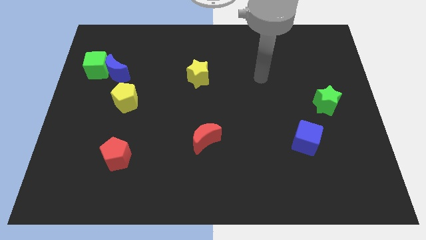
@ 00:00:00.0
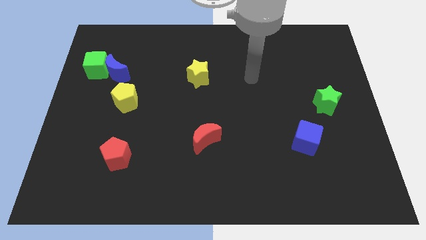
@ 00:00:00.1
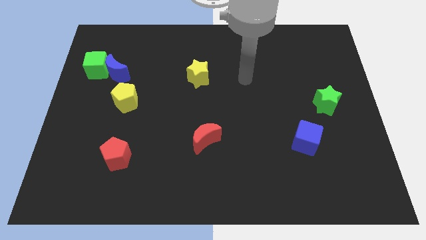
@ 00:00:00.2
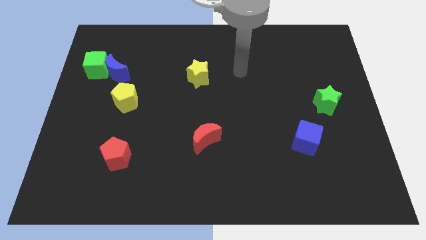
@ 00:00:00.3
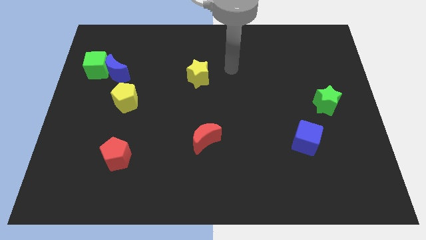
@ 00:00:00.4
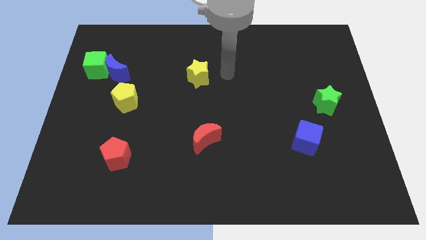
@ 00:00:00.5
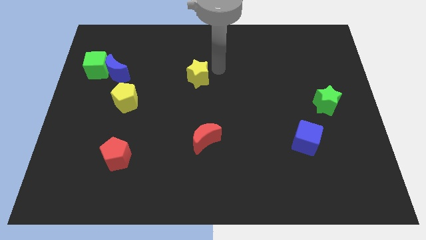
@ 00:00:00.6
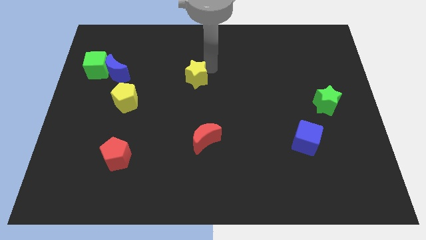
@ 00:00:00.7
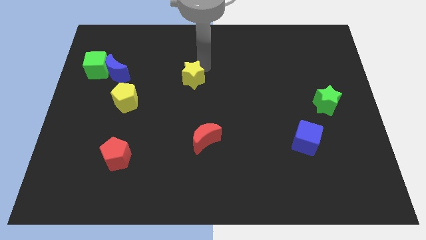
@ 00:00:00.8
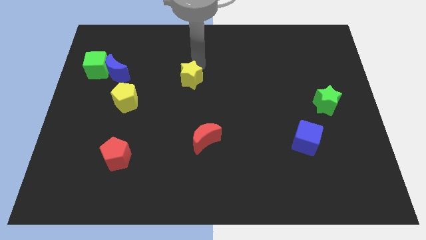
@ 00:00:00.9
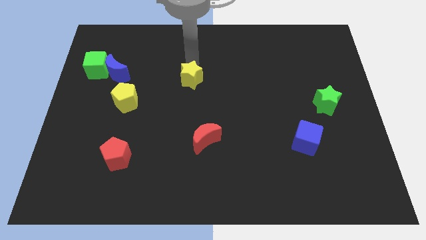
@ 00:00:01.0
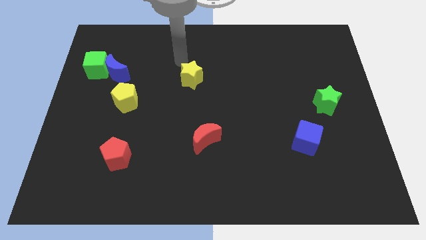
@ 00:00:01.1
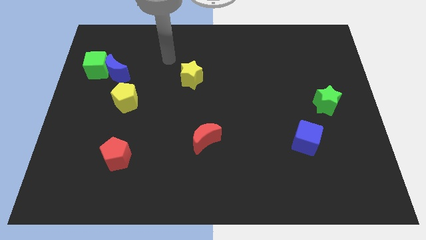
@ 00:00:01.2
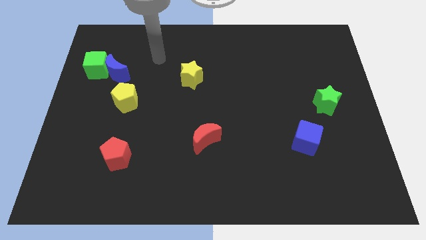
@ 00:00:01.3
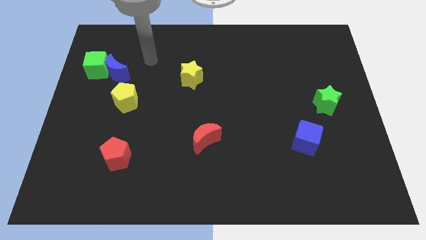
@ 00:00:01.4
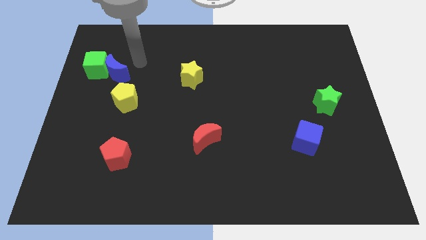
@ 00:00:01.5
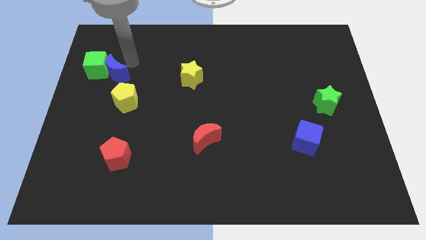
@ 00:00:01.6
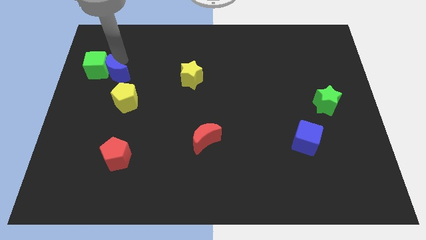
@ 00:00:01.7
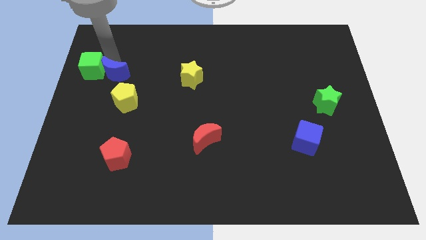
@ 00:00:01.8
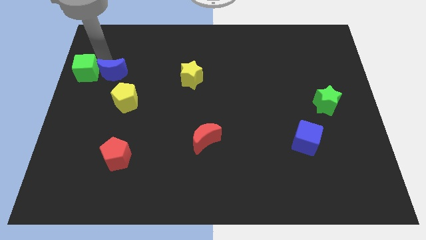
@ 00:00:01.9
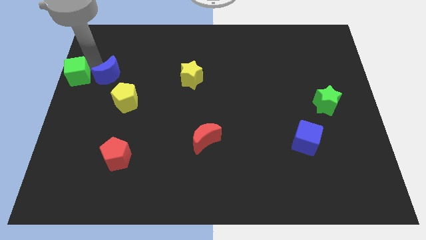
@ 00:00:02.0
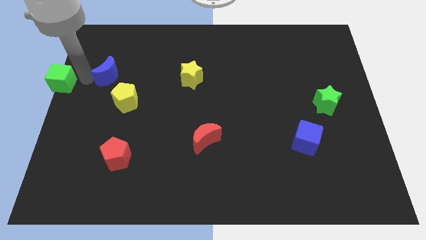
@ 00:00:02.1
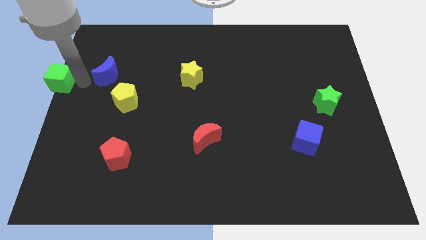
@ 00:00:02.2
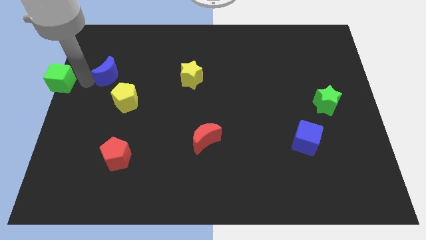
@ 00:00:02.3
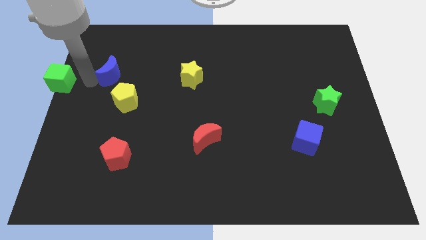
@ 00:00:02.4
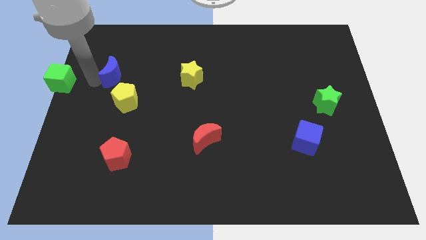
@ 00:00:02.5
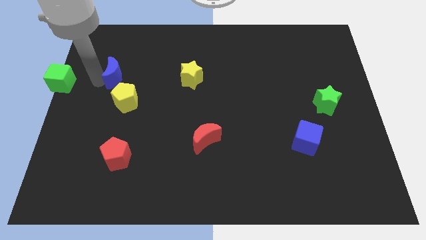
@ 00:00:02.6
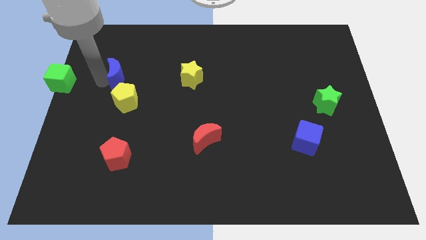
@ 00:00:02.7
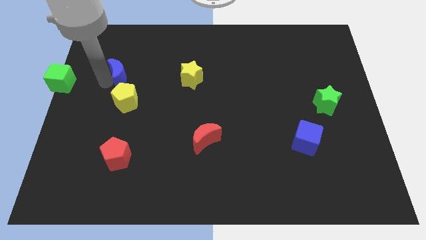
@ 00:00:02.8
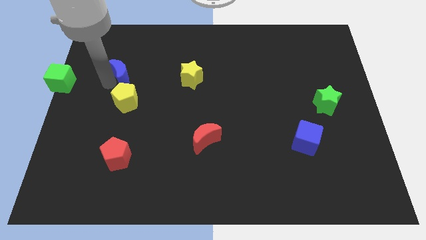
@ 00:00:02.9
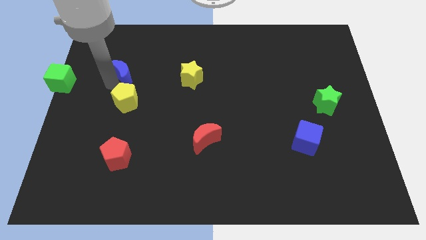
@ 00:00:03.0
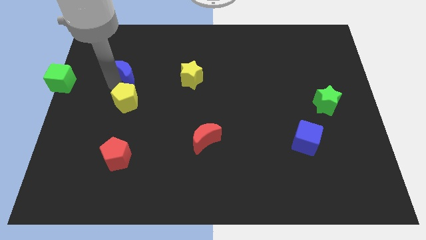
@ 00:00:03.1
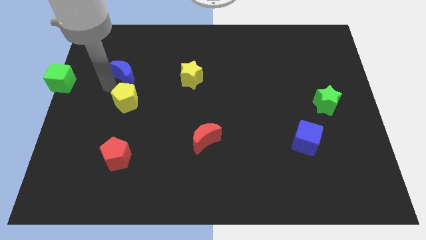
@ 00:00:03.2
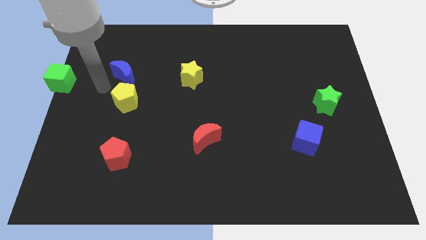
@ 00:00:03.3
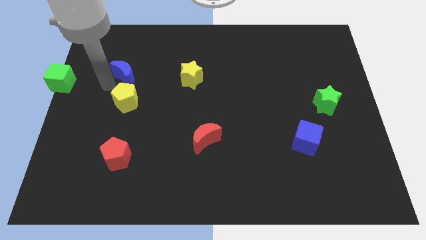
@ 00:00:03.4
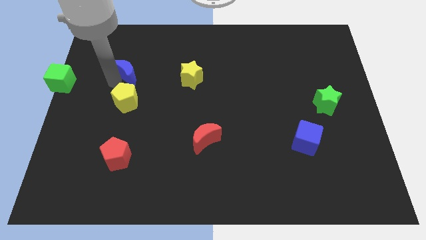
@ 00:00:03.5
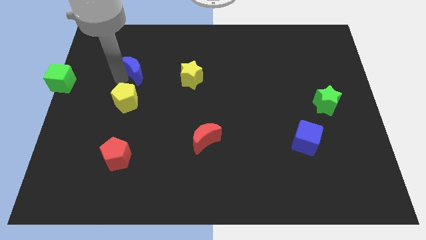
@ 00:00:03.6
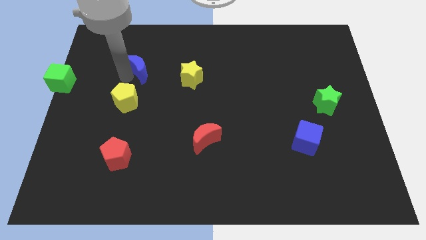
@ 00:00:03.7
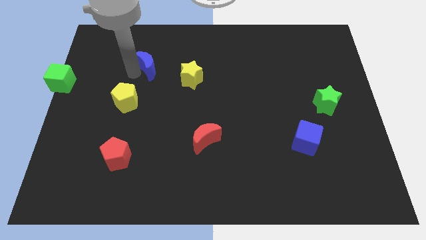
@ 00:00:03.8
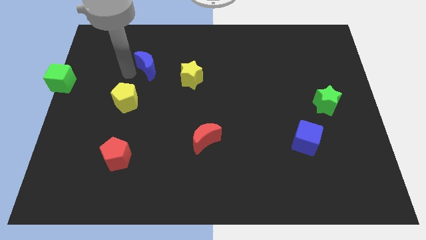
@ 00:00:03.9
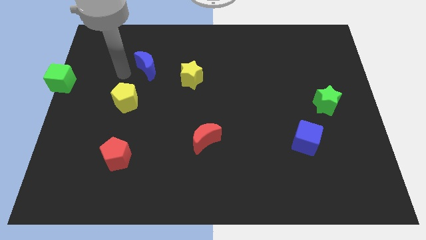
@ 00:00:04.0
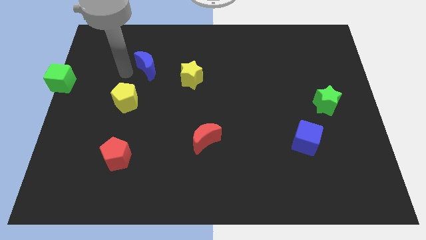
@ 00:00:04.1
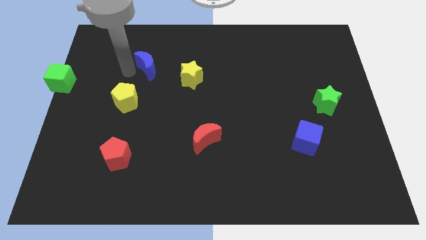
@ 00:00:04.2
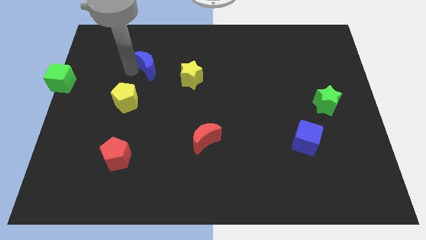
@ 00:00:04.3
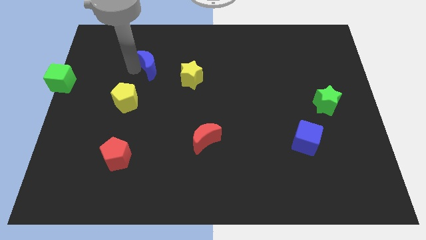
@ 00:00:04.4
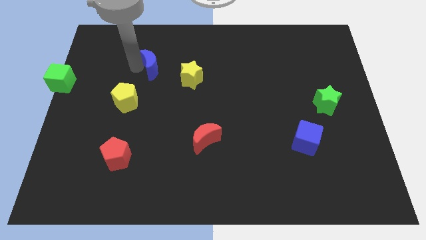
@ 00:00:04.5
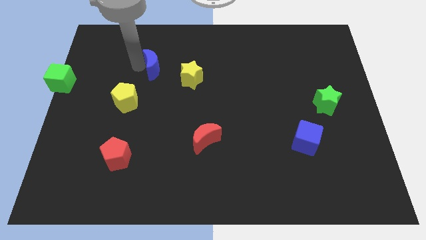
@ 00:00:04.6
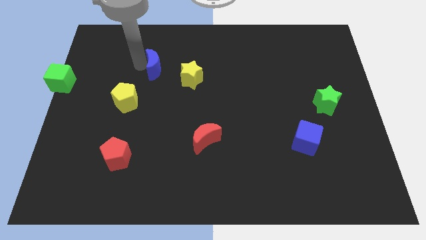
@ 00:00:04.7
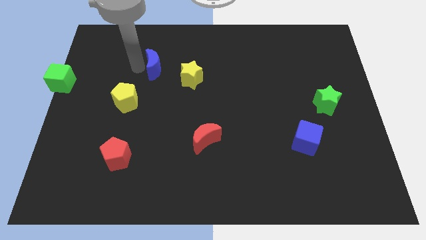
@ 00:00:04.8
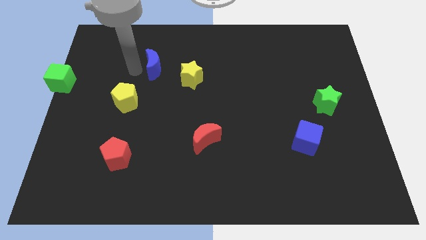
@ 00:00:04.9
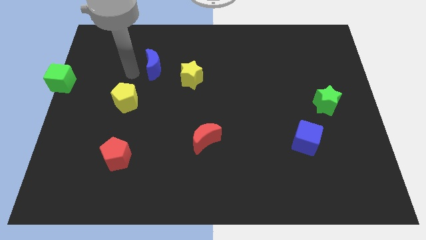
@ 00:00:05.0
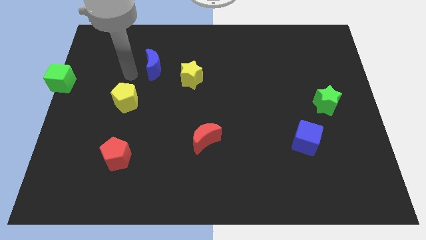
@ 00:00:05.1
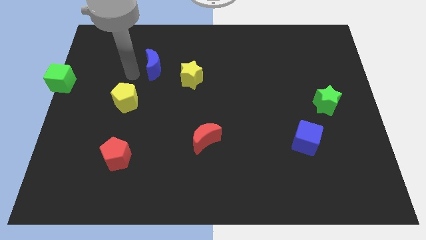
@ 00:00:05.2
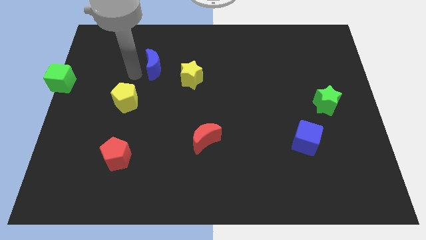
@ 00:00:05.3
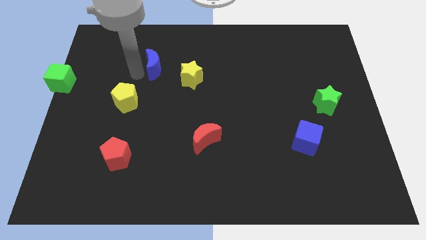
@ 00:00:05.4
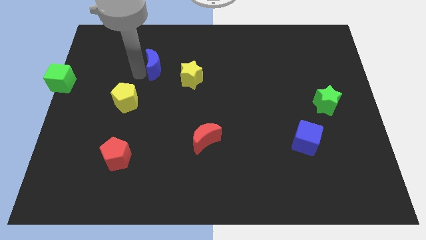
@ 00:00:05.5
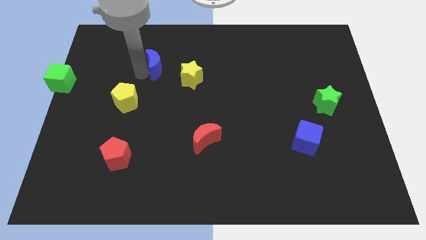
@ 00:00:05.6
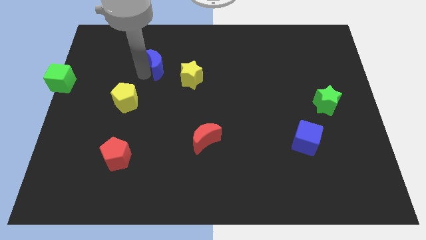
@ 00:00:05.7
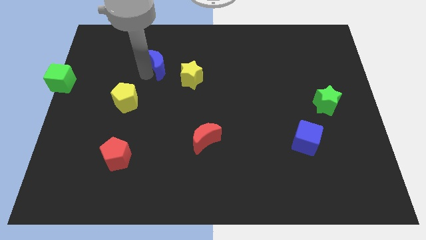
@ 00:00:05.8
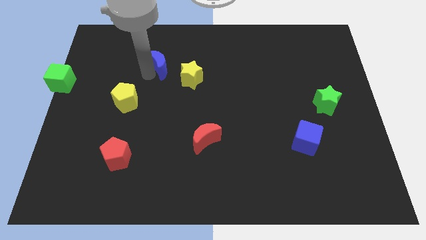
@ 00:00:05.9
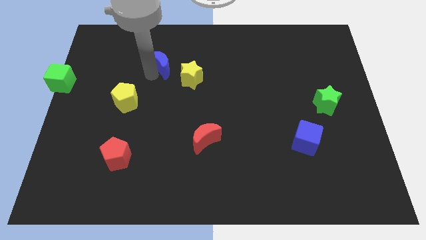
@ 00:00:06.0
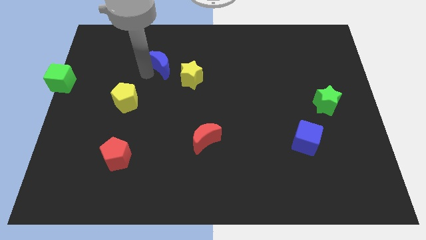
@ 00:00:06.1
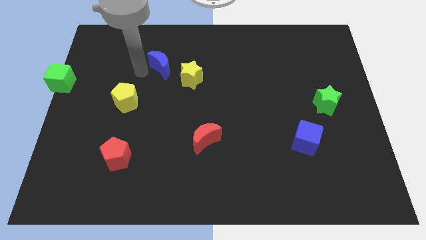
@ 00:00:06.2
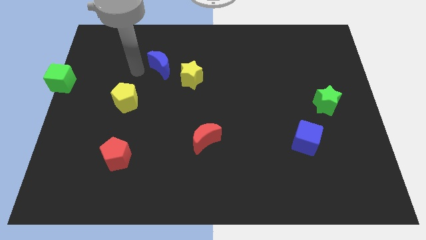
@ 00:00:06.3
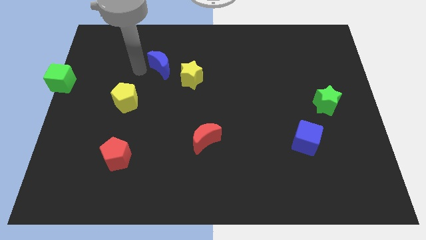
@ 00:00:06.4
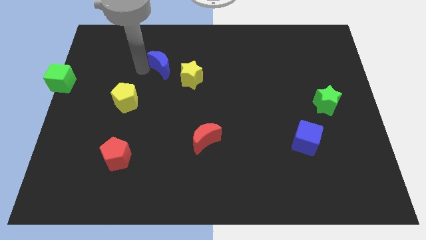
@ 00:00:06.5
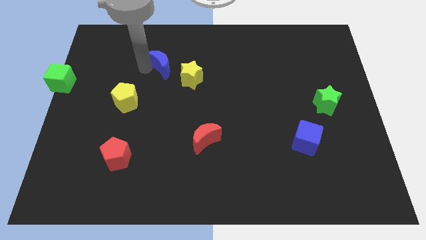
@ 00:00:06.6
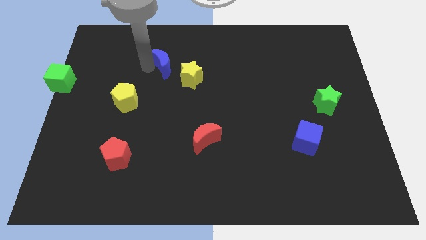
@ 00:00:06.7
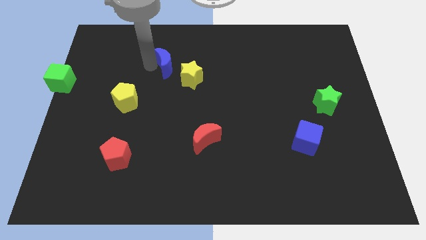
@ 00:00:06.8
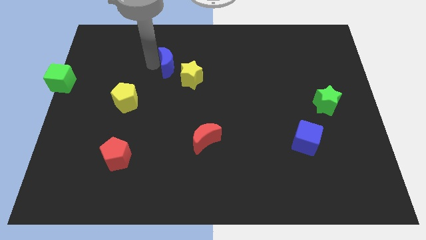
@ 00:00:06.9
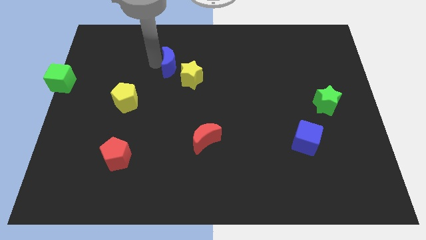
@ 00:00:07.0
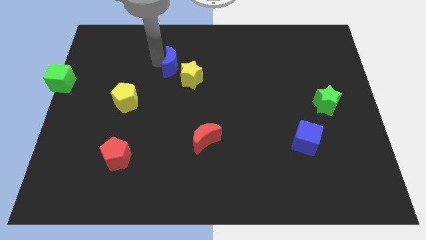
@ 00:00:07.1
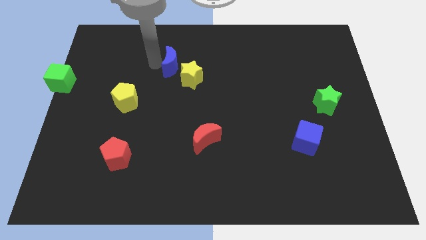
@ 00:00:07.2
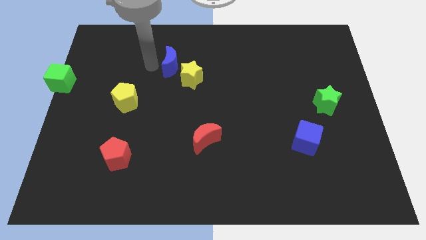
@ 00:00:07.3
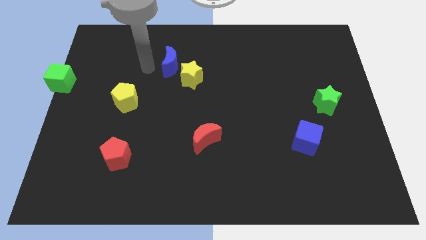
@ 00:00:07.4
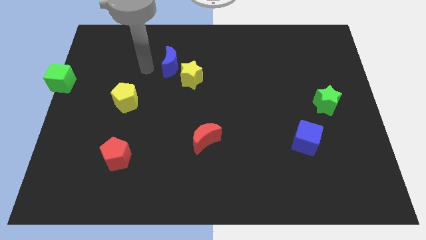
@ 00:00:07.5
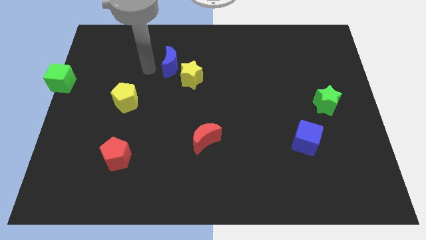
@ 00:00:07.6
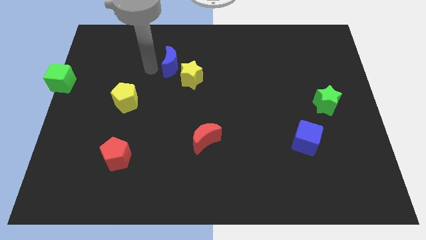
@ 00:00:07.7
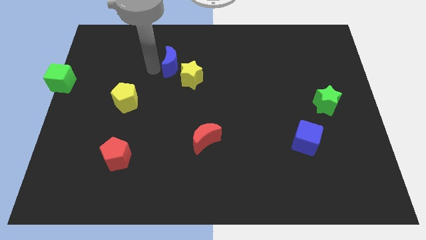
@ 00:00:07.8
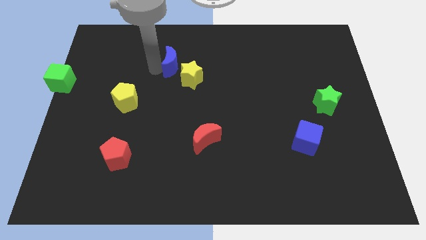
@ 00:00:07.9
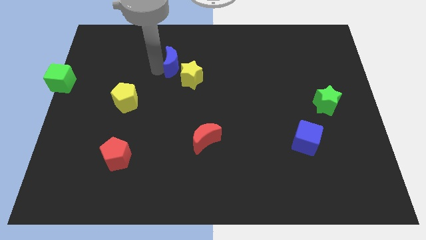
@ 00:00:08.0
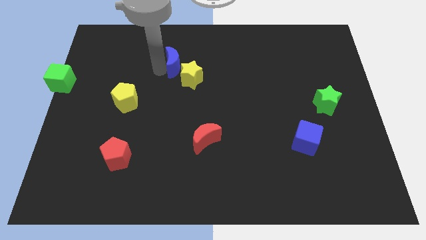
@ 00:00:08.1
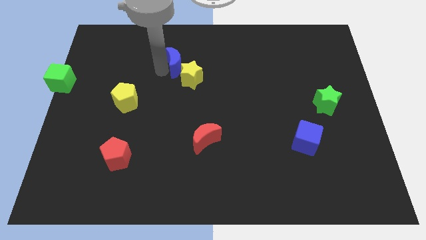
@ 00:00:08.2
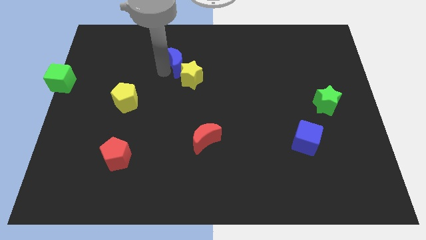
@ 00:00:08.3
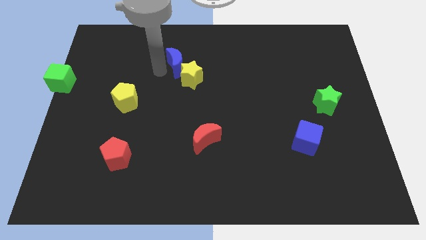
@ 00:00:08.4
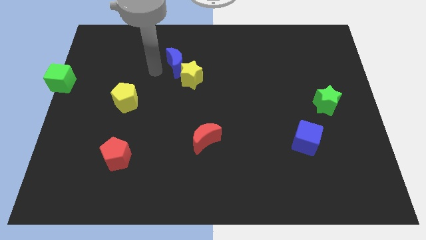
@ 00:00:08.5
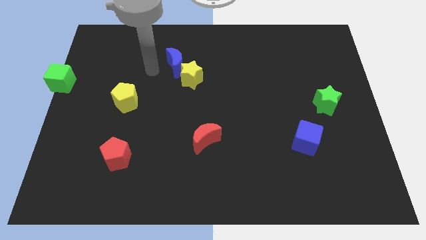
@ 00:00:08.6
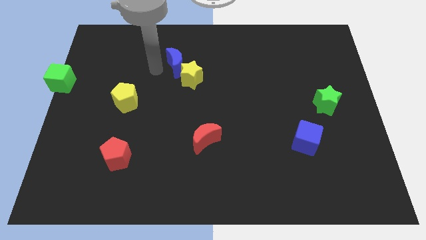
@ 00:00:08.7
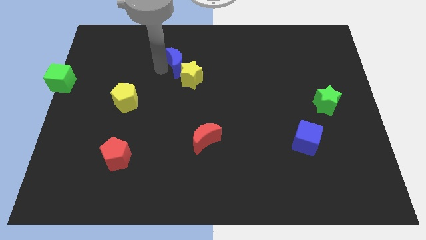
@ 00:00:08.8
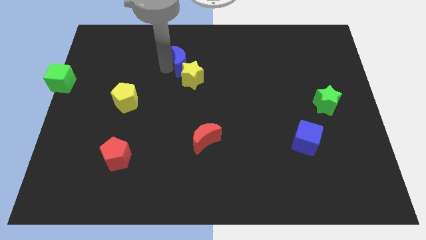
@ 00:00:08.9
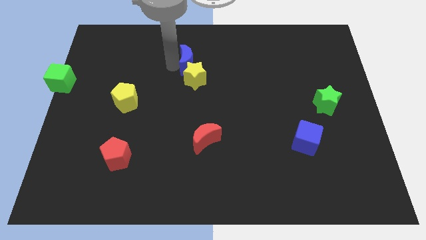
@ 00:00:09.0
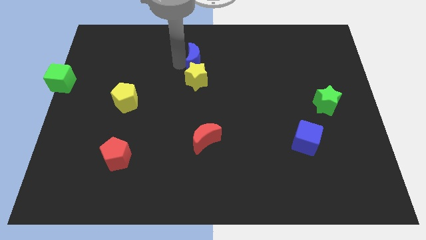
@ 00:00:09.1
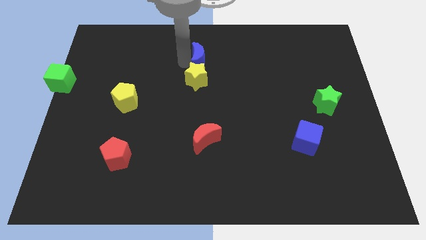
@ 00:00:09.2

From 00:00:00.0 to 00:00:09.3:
move the blue moon right
